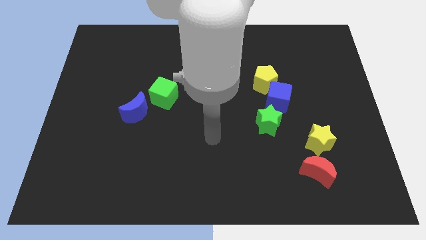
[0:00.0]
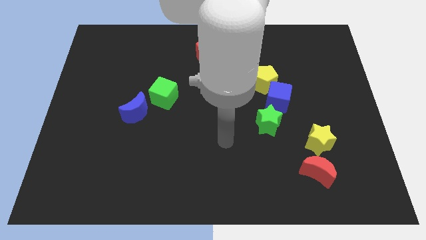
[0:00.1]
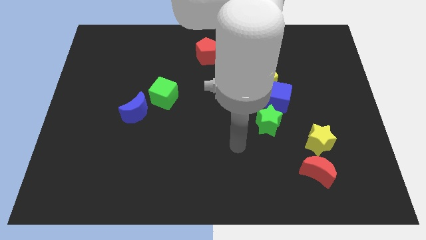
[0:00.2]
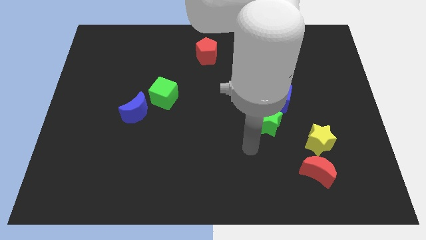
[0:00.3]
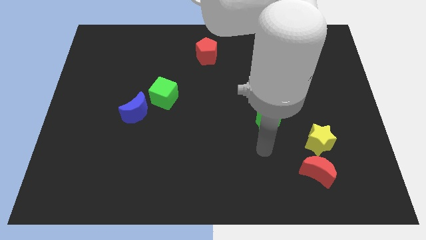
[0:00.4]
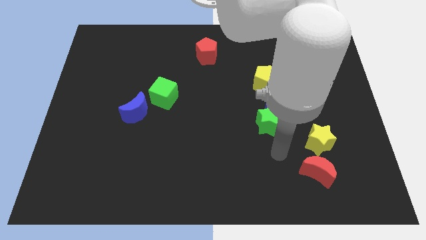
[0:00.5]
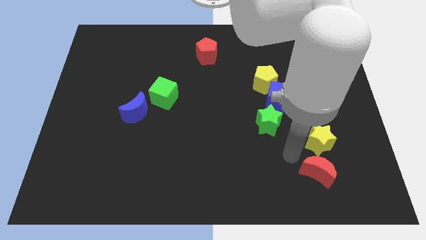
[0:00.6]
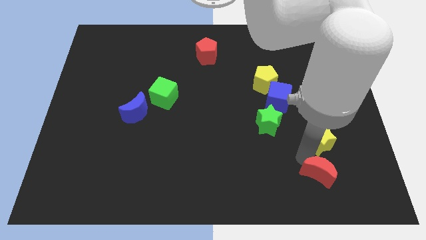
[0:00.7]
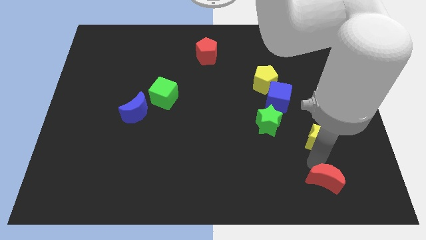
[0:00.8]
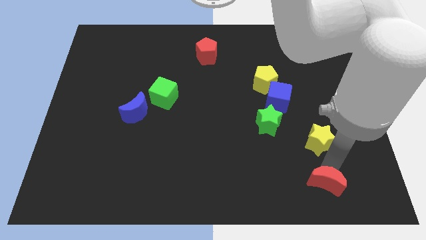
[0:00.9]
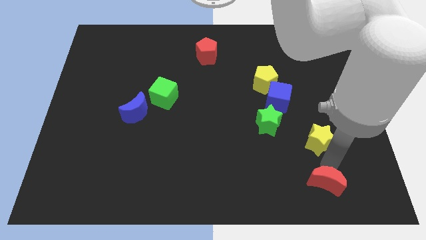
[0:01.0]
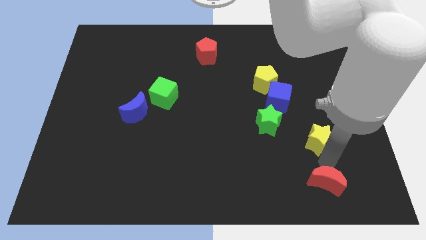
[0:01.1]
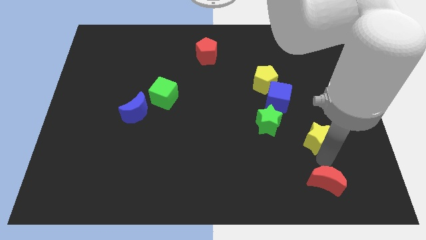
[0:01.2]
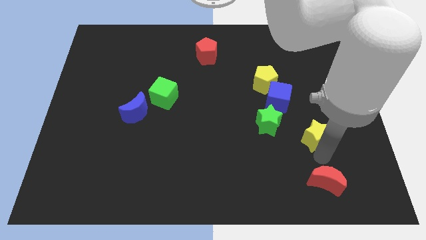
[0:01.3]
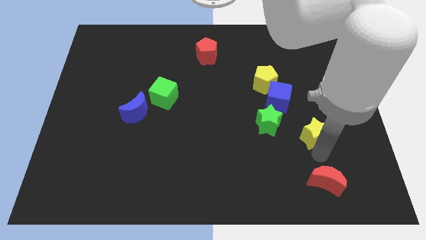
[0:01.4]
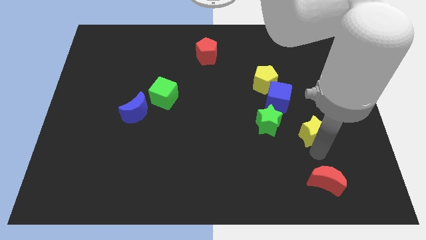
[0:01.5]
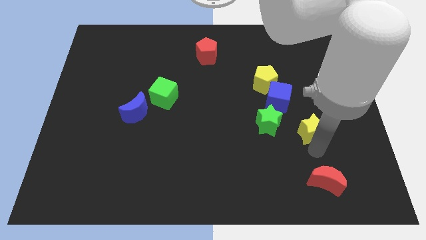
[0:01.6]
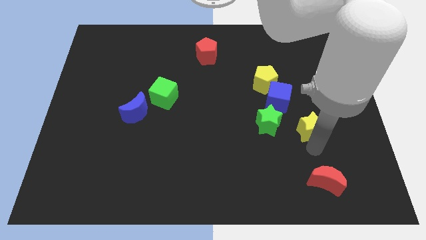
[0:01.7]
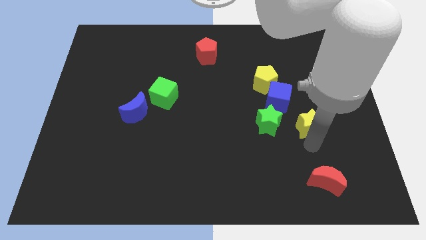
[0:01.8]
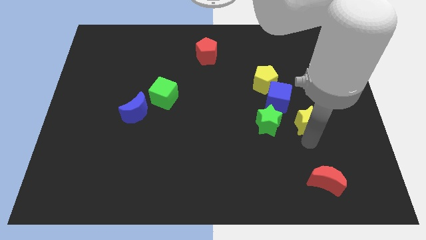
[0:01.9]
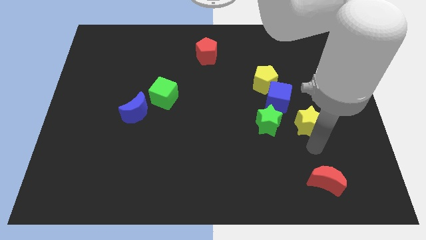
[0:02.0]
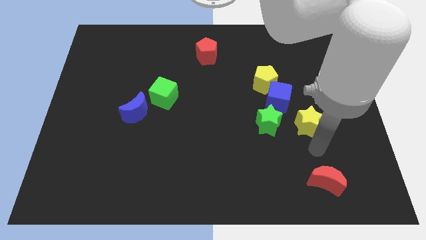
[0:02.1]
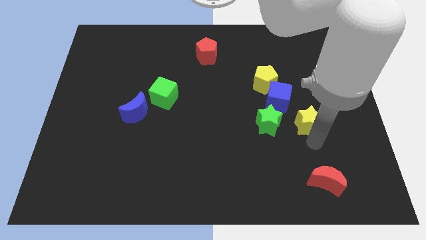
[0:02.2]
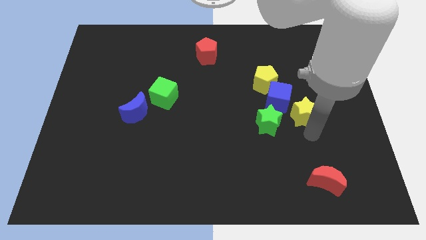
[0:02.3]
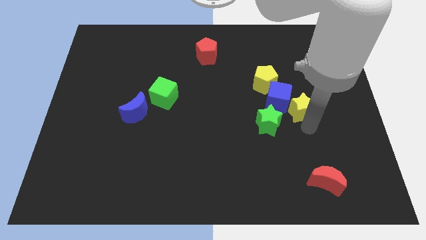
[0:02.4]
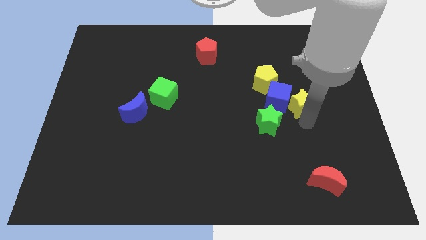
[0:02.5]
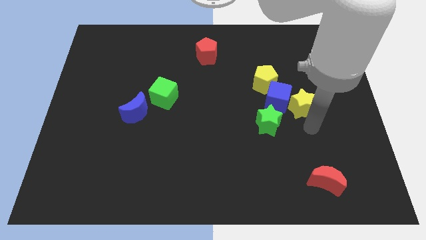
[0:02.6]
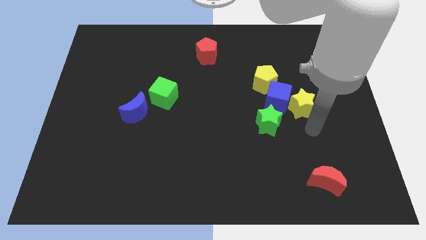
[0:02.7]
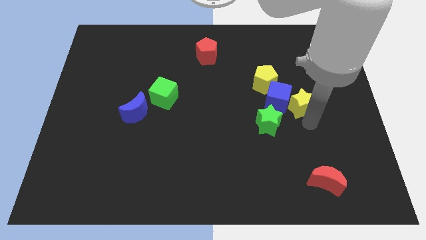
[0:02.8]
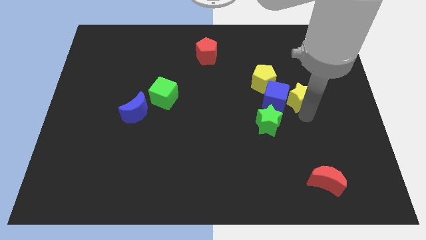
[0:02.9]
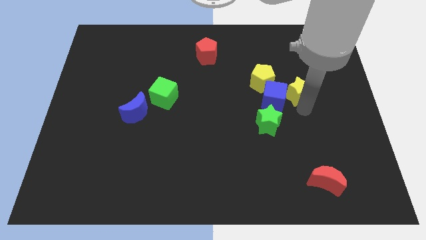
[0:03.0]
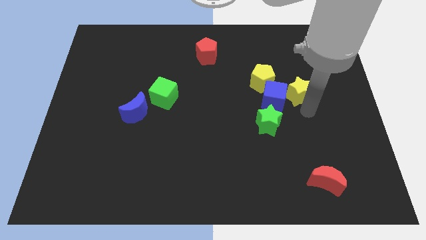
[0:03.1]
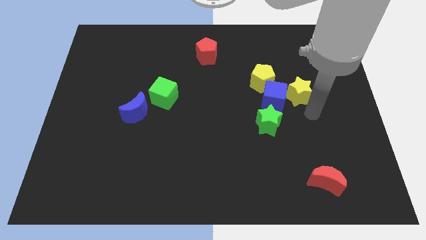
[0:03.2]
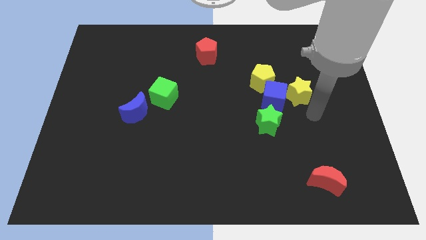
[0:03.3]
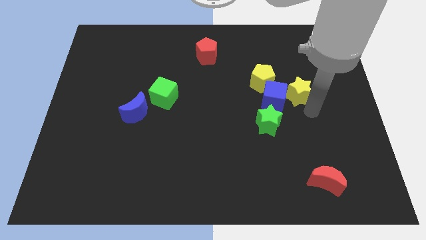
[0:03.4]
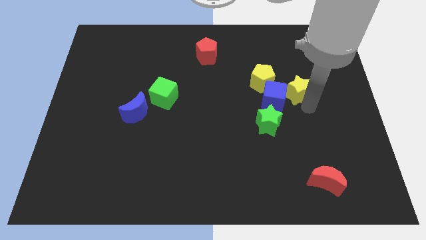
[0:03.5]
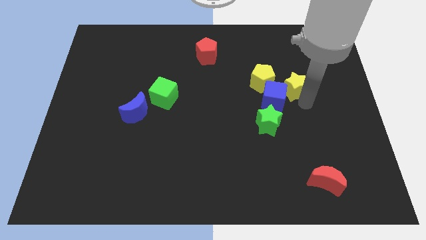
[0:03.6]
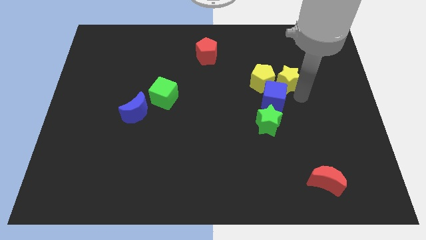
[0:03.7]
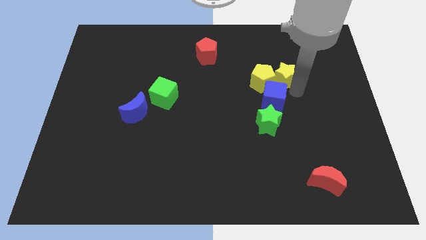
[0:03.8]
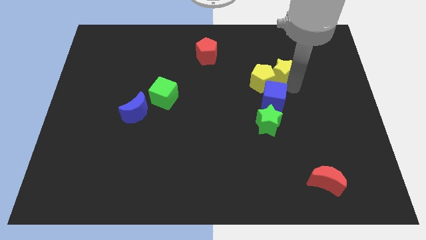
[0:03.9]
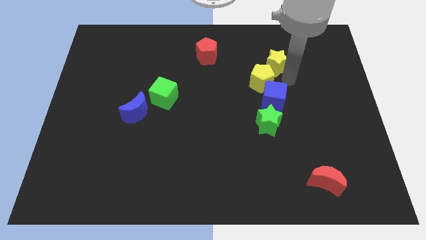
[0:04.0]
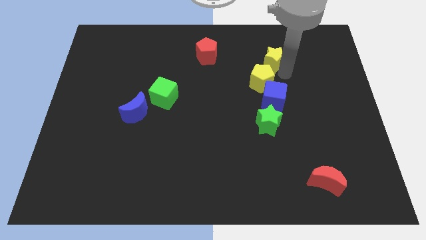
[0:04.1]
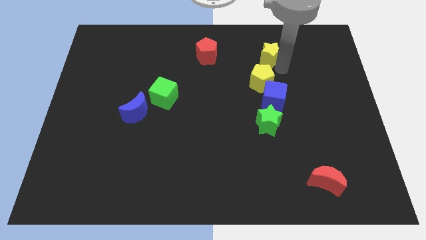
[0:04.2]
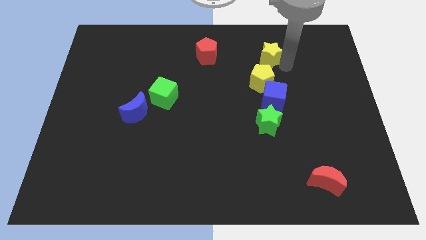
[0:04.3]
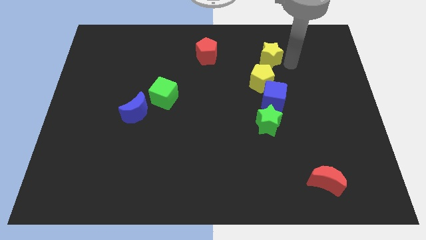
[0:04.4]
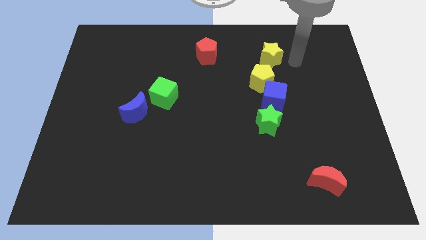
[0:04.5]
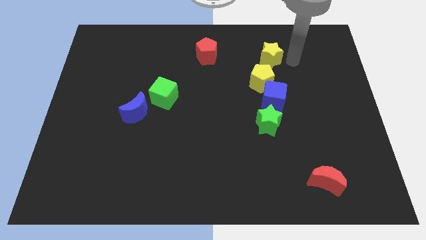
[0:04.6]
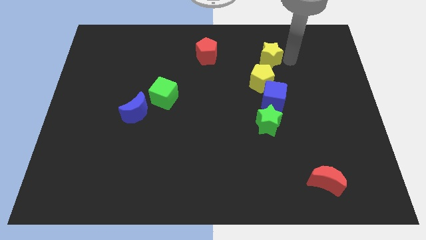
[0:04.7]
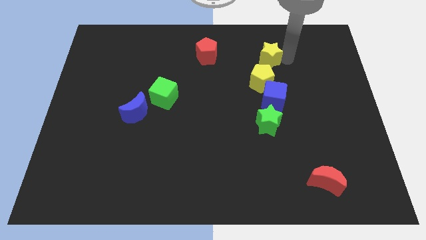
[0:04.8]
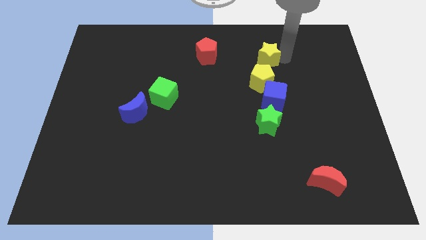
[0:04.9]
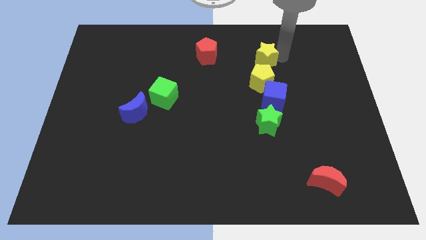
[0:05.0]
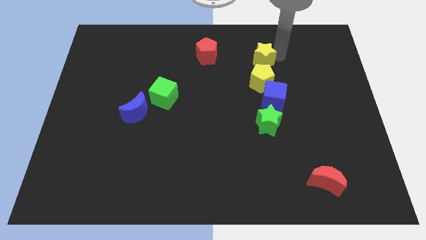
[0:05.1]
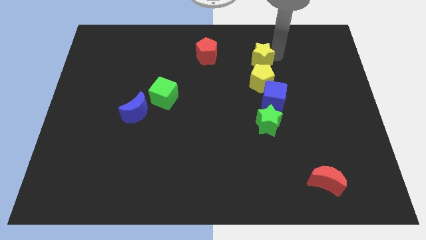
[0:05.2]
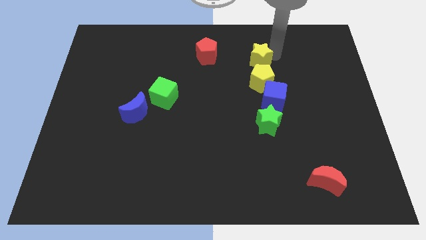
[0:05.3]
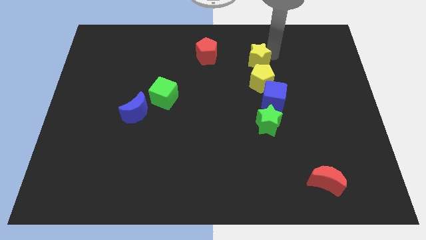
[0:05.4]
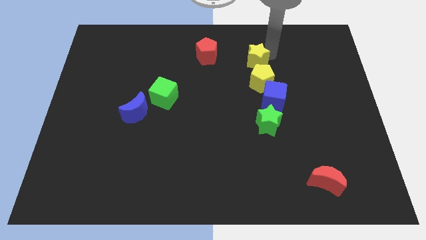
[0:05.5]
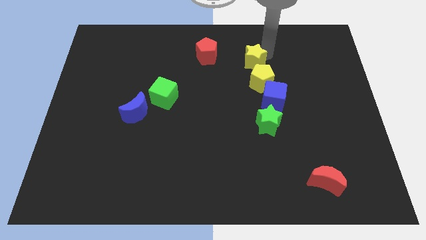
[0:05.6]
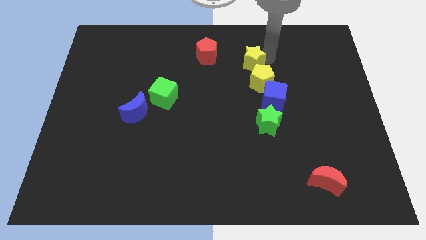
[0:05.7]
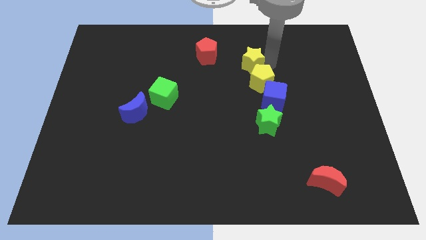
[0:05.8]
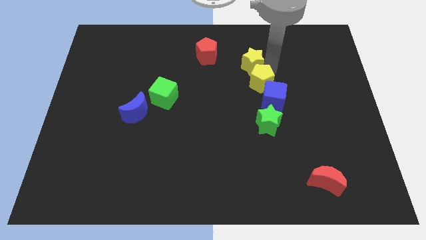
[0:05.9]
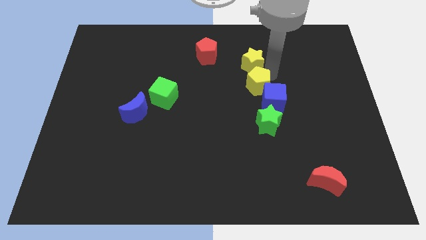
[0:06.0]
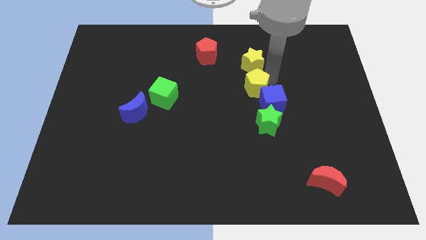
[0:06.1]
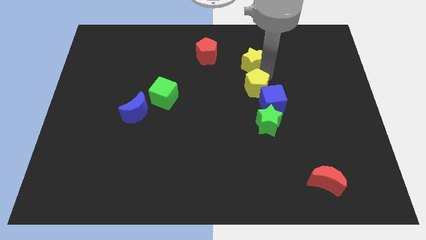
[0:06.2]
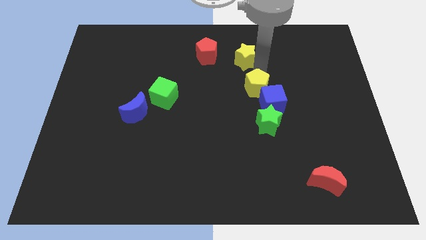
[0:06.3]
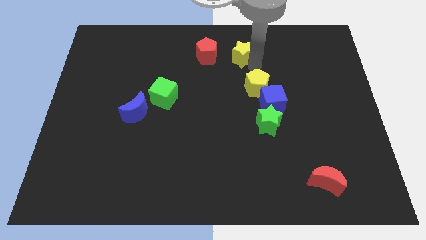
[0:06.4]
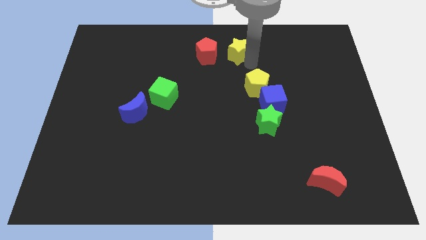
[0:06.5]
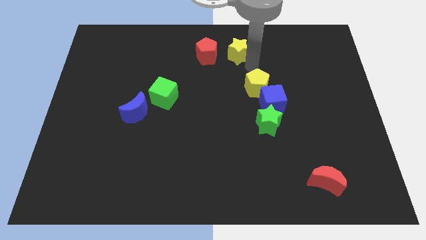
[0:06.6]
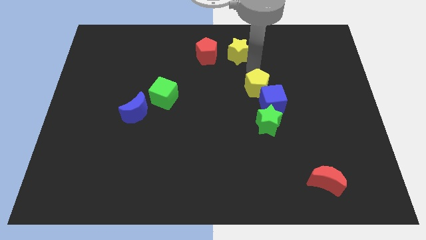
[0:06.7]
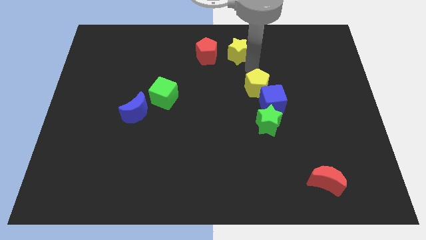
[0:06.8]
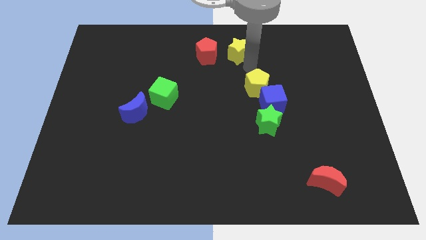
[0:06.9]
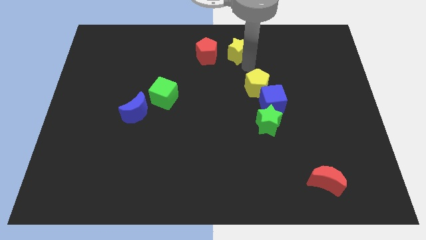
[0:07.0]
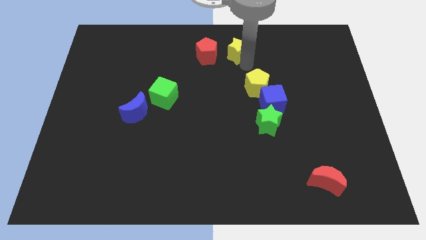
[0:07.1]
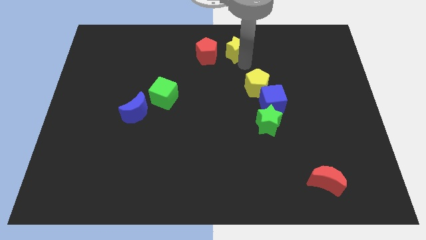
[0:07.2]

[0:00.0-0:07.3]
slide the yellow star to the top side
